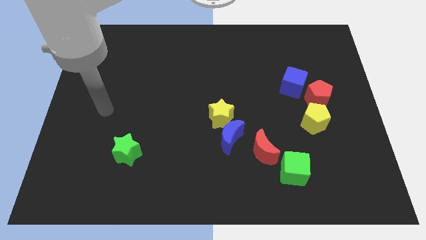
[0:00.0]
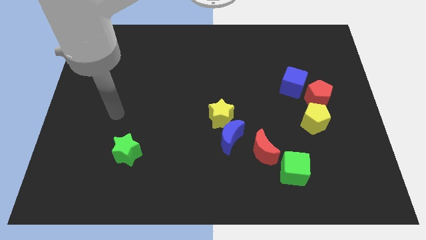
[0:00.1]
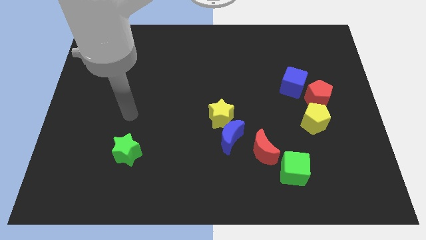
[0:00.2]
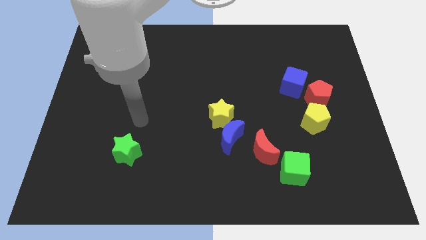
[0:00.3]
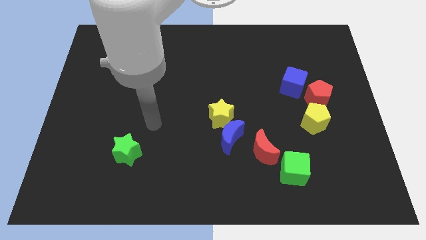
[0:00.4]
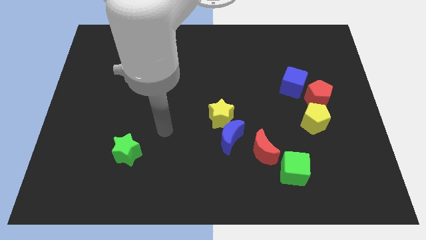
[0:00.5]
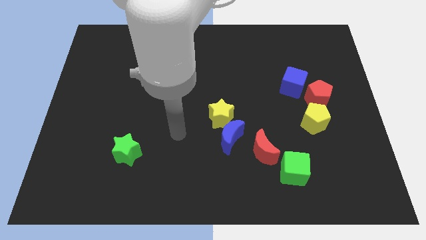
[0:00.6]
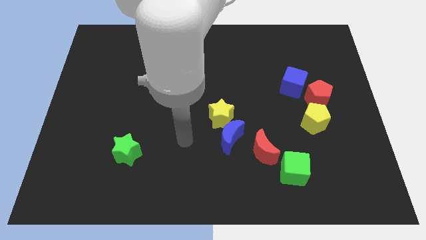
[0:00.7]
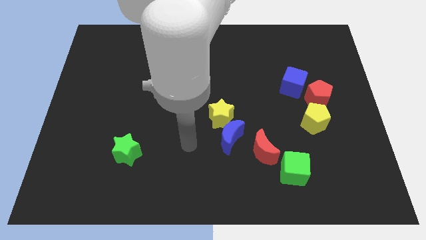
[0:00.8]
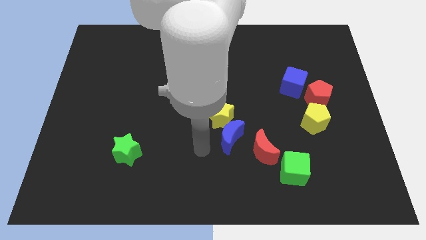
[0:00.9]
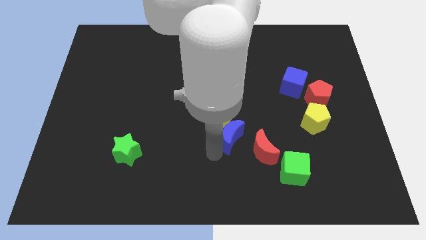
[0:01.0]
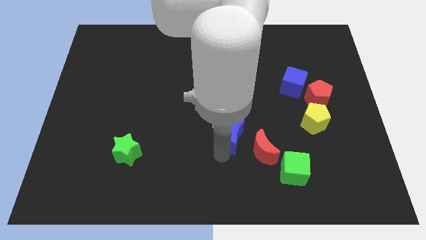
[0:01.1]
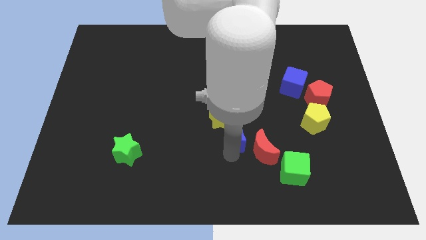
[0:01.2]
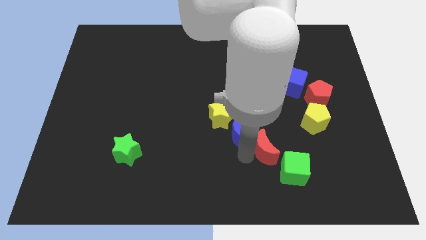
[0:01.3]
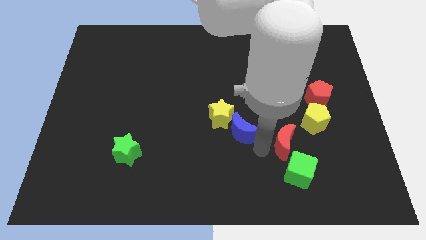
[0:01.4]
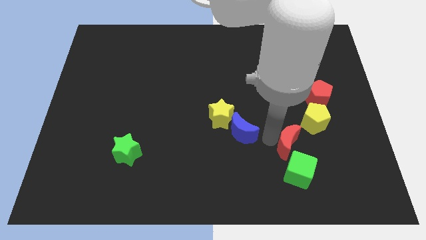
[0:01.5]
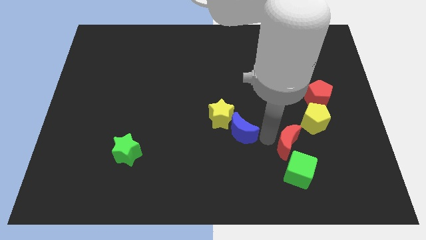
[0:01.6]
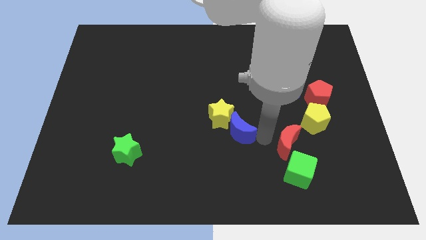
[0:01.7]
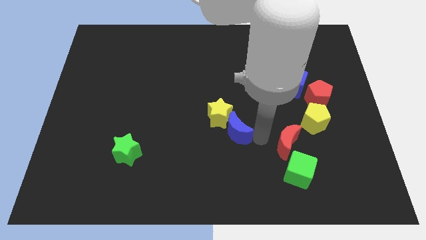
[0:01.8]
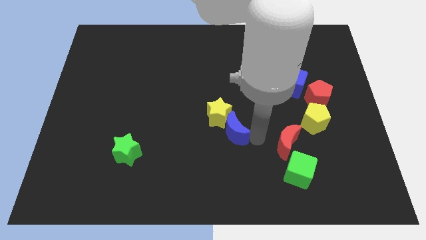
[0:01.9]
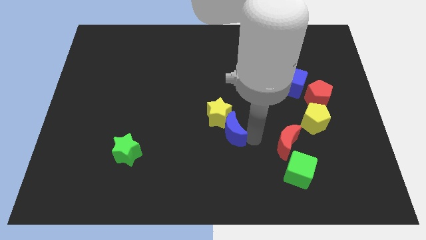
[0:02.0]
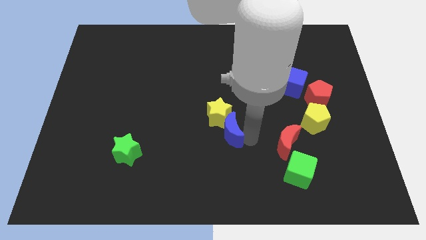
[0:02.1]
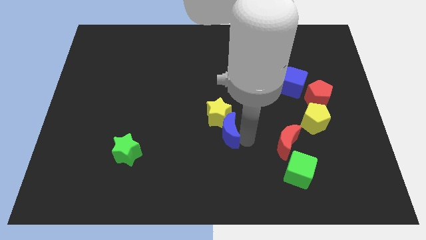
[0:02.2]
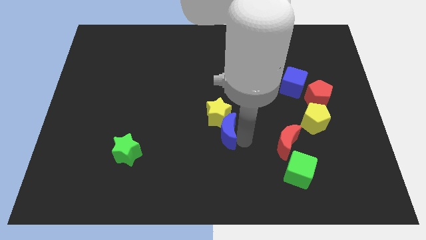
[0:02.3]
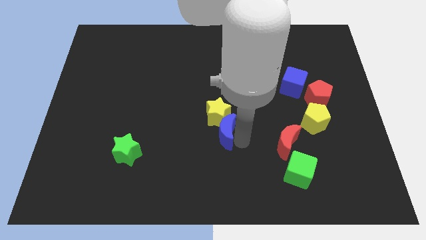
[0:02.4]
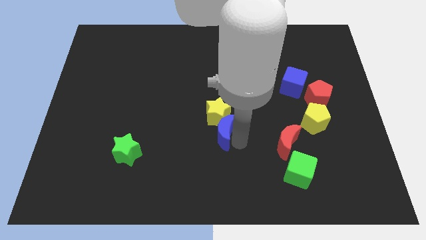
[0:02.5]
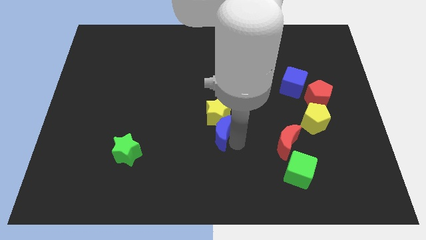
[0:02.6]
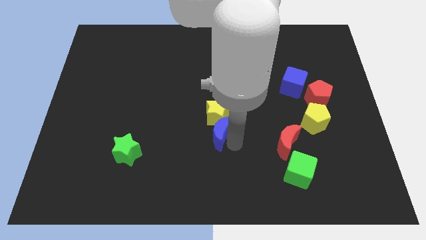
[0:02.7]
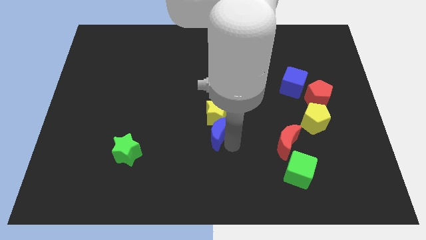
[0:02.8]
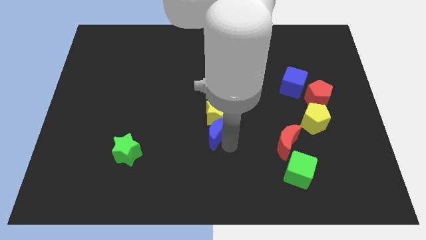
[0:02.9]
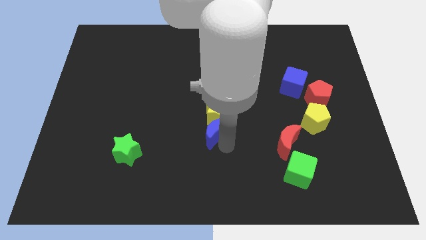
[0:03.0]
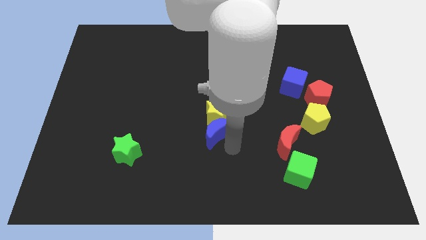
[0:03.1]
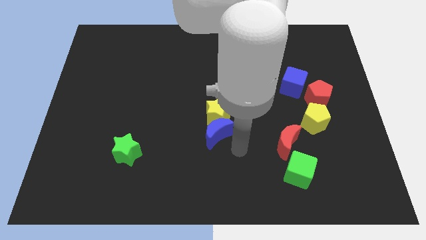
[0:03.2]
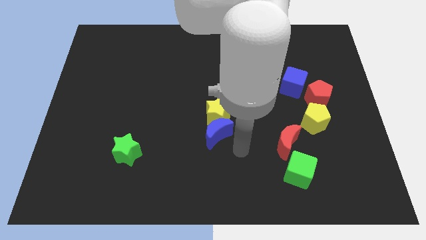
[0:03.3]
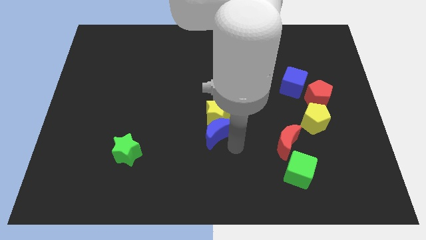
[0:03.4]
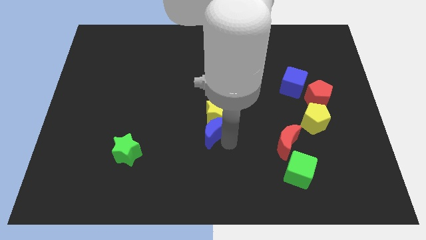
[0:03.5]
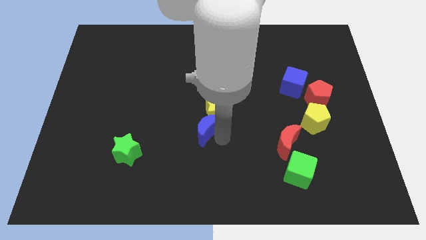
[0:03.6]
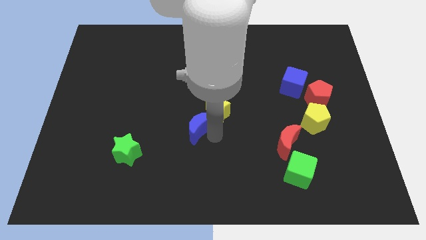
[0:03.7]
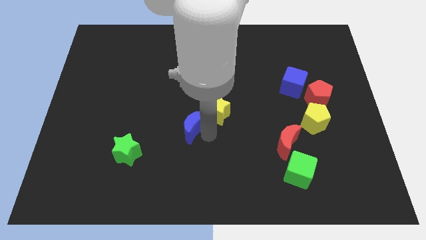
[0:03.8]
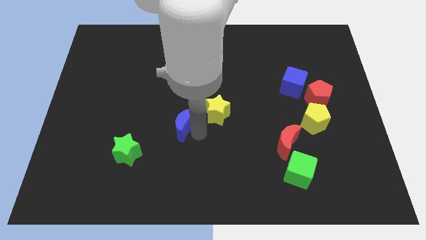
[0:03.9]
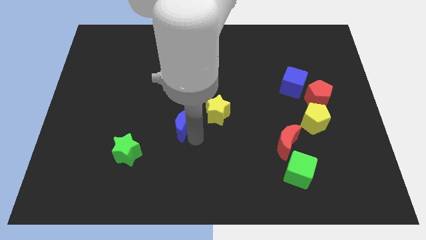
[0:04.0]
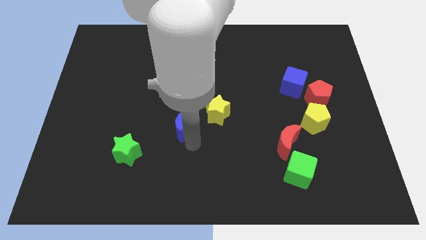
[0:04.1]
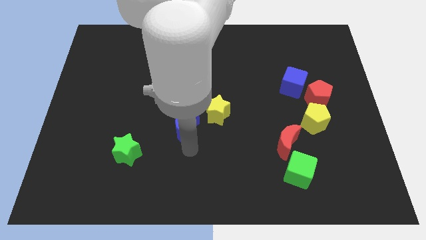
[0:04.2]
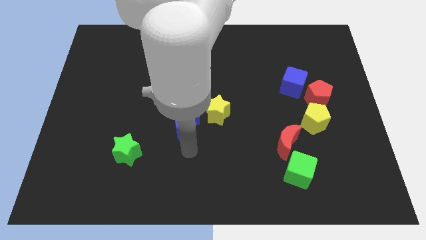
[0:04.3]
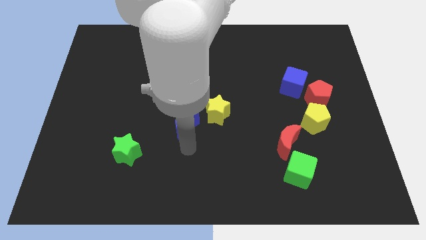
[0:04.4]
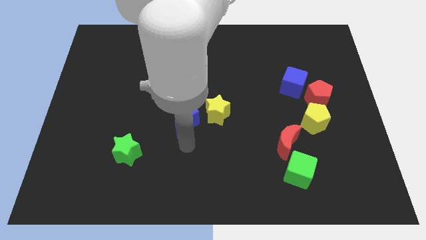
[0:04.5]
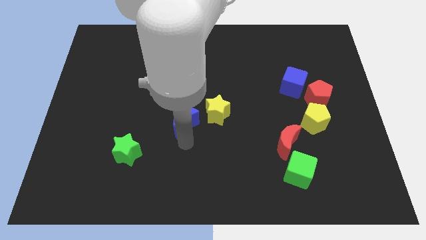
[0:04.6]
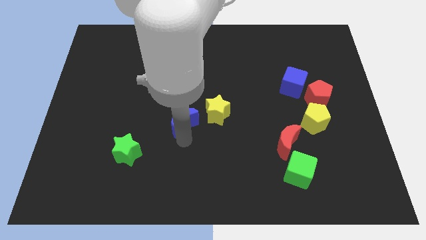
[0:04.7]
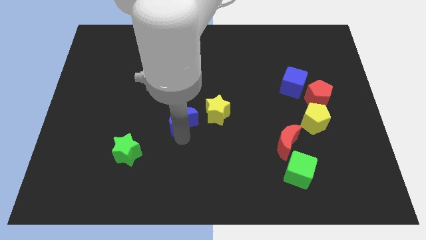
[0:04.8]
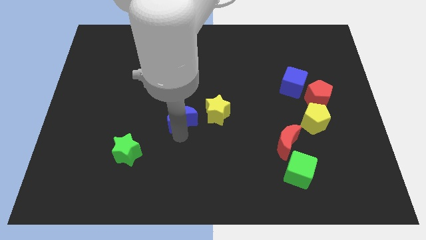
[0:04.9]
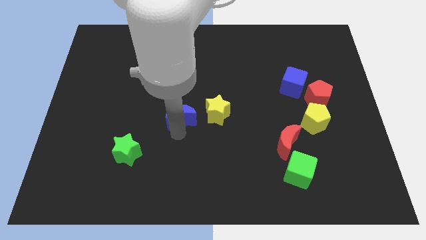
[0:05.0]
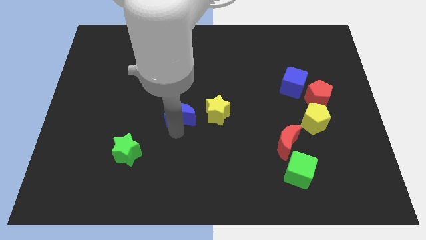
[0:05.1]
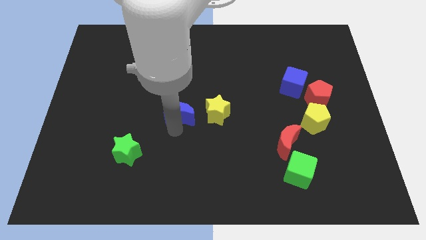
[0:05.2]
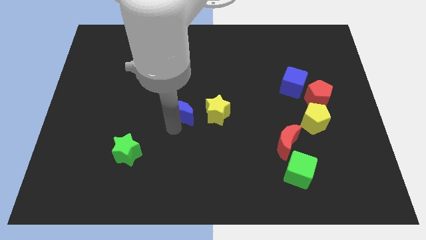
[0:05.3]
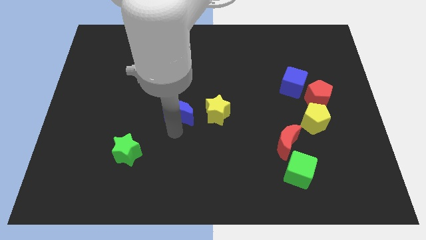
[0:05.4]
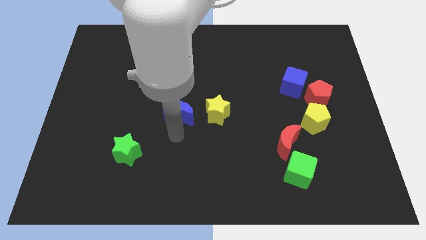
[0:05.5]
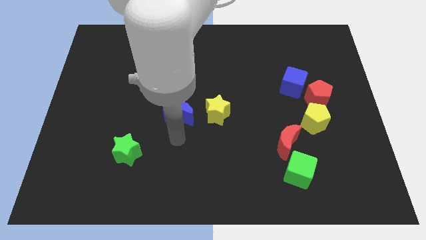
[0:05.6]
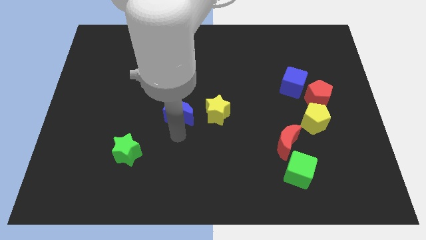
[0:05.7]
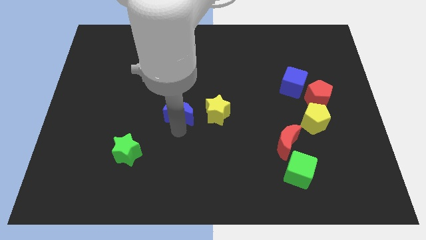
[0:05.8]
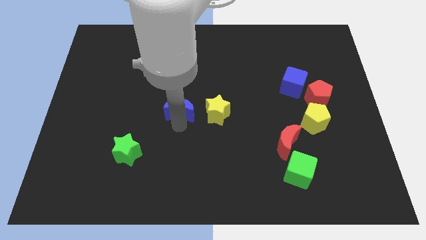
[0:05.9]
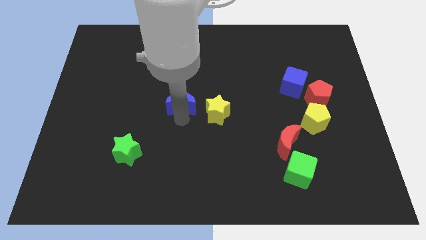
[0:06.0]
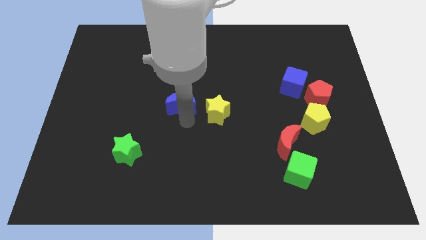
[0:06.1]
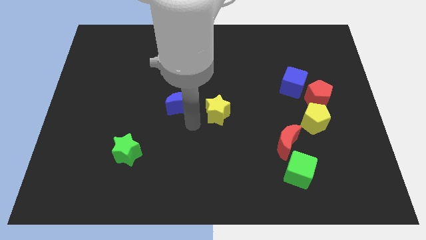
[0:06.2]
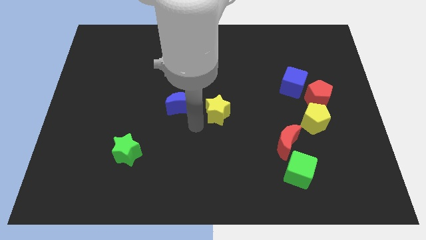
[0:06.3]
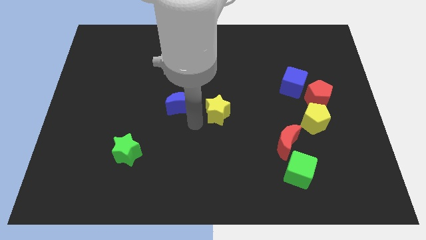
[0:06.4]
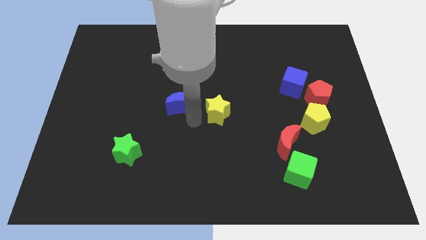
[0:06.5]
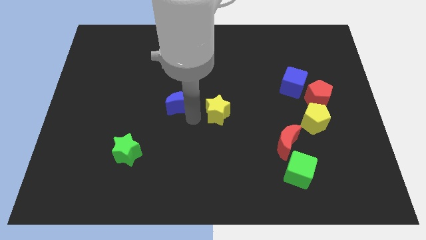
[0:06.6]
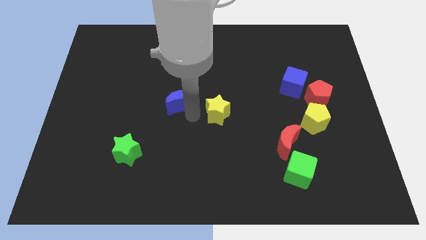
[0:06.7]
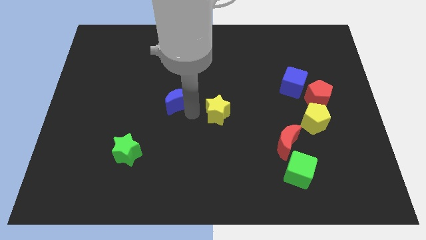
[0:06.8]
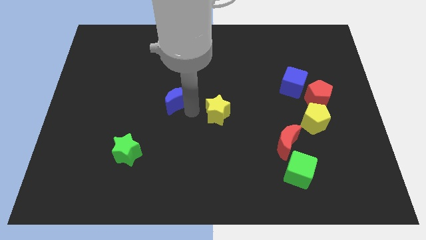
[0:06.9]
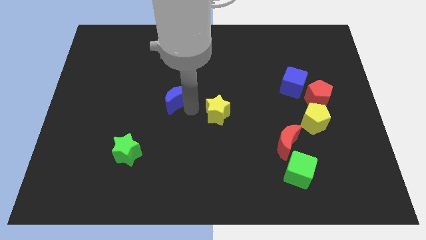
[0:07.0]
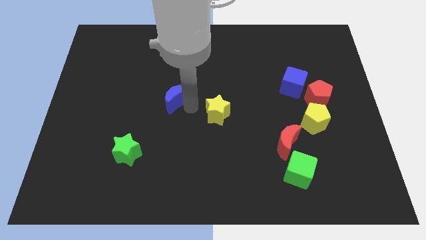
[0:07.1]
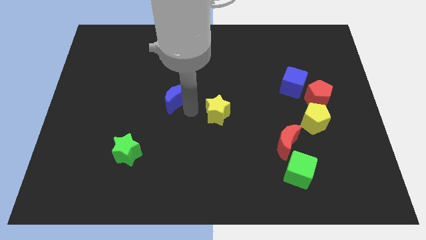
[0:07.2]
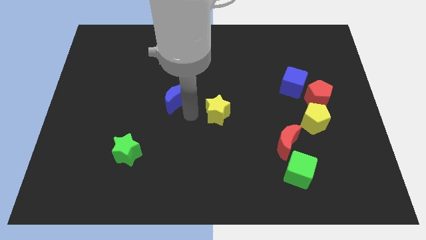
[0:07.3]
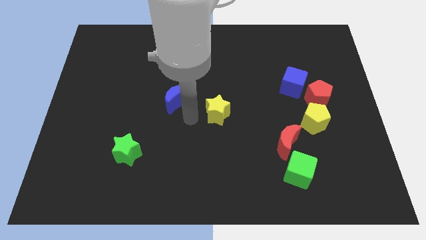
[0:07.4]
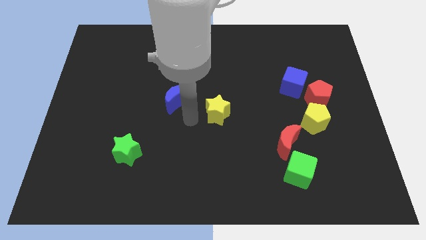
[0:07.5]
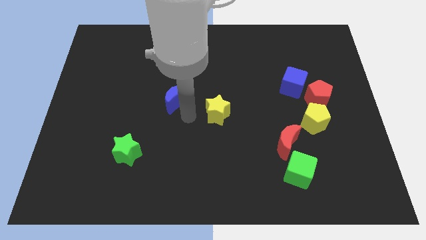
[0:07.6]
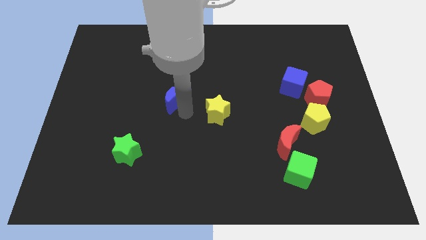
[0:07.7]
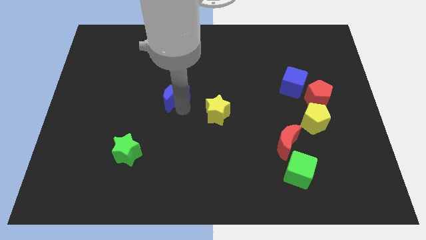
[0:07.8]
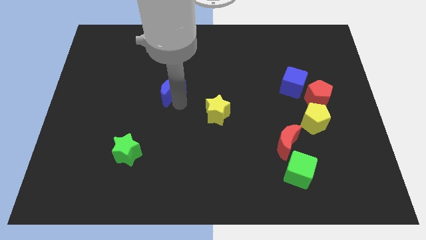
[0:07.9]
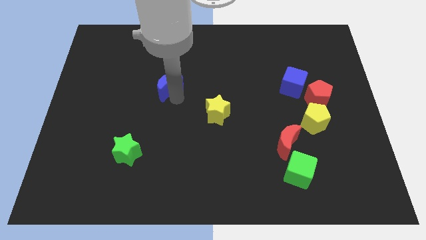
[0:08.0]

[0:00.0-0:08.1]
push the blue moon upwards and then to the left
